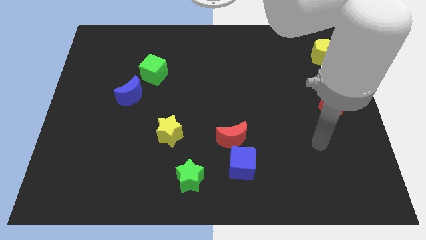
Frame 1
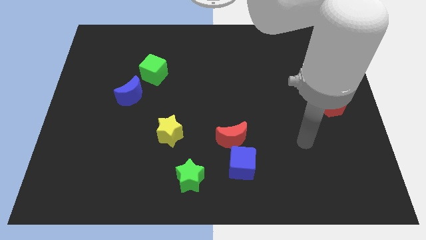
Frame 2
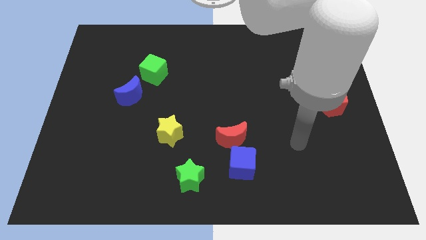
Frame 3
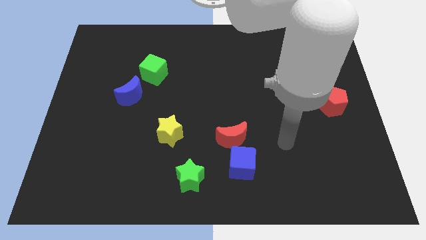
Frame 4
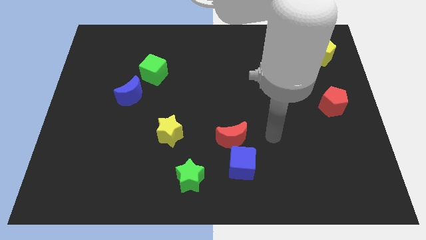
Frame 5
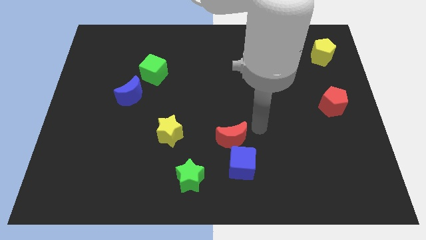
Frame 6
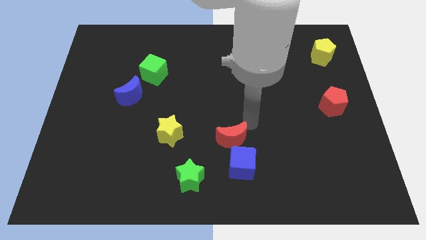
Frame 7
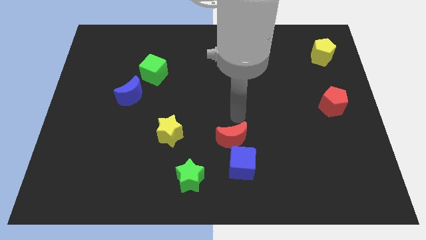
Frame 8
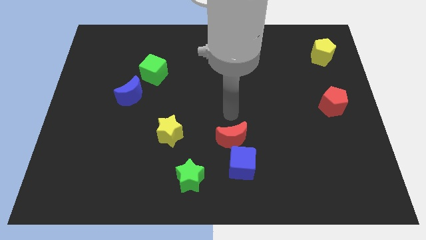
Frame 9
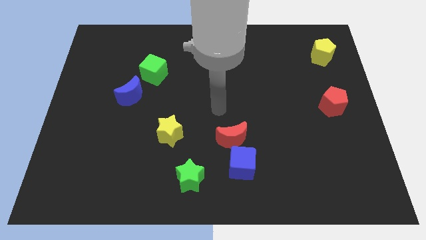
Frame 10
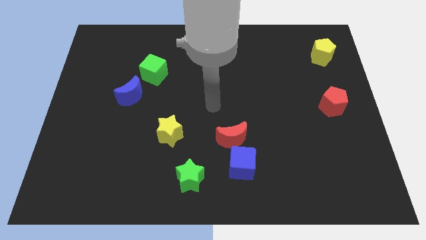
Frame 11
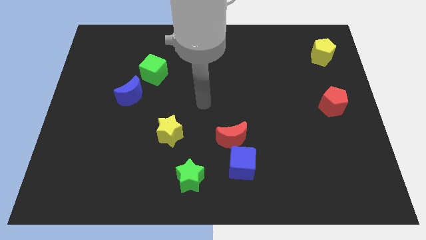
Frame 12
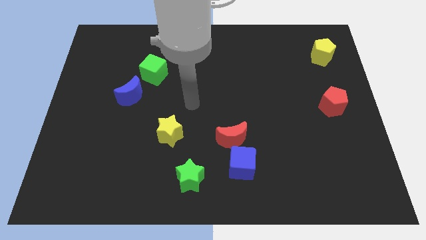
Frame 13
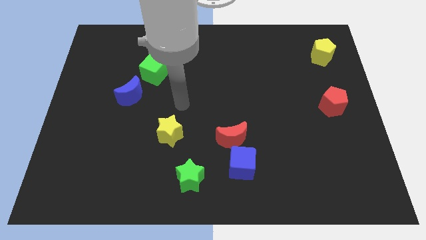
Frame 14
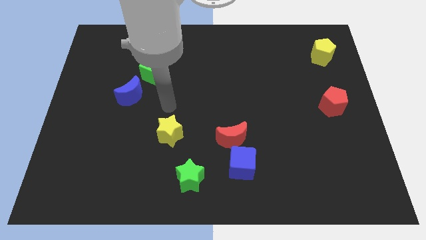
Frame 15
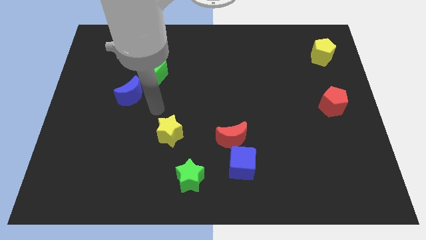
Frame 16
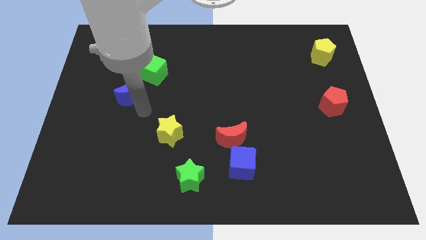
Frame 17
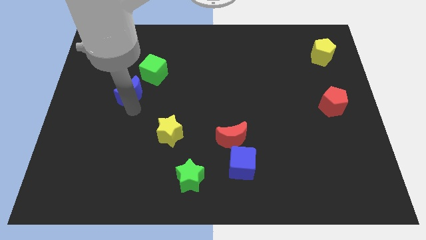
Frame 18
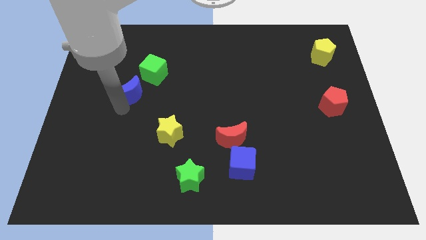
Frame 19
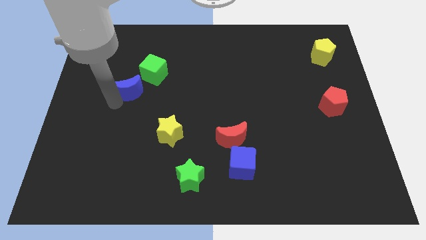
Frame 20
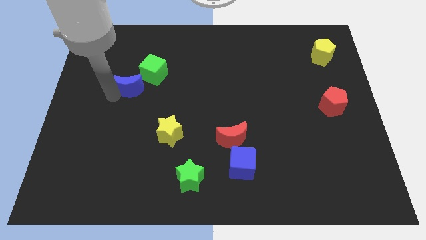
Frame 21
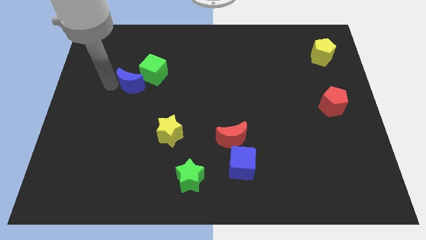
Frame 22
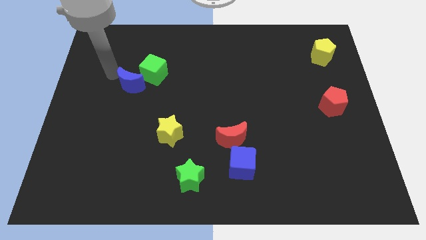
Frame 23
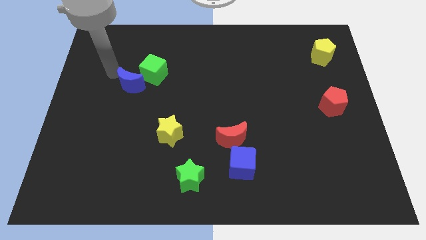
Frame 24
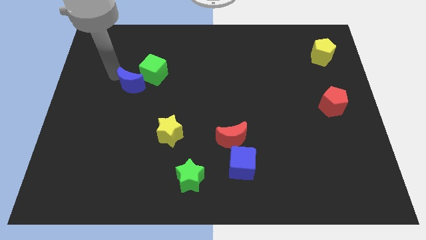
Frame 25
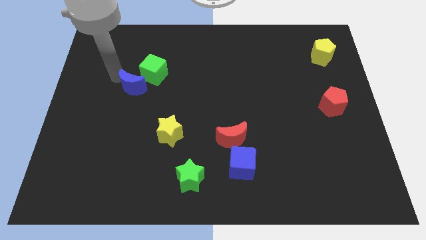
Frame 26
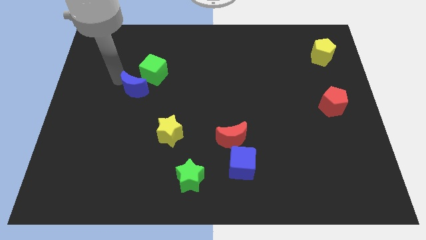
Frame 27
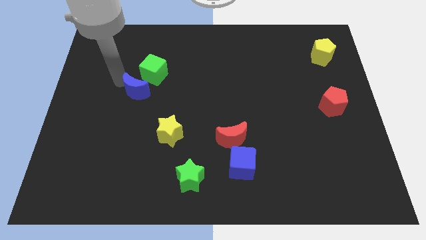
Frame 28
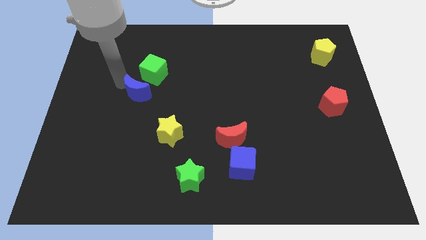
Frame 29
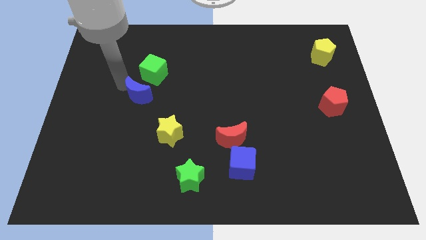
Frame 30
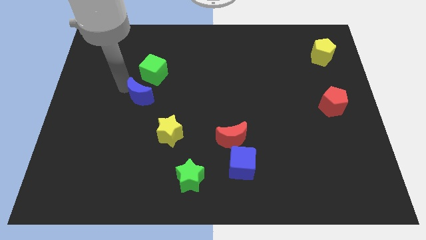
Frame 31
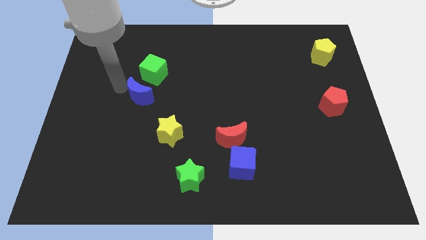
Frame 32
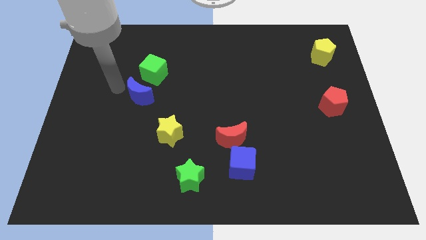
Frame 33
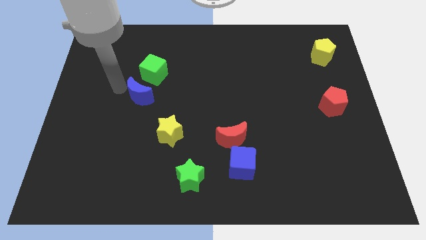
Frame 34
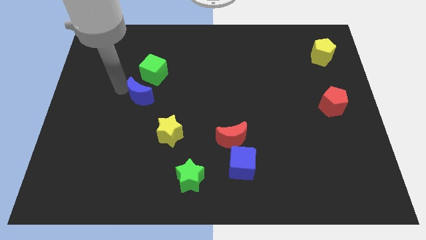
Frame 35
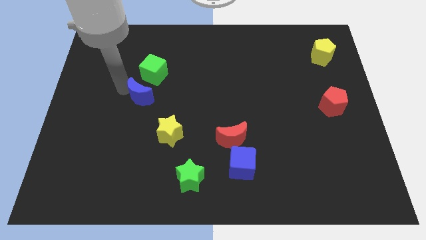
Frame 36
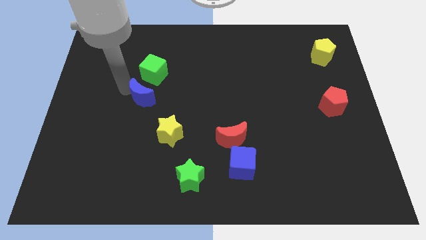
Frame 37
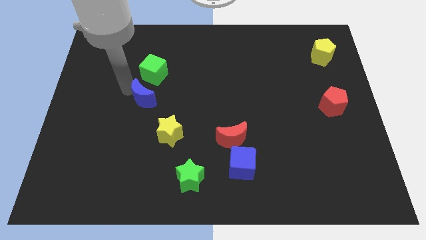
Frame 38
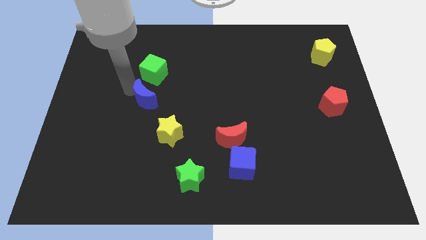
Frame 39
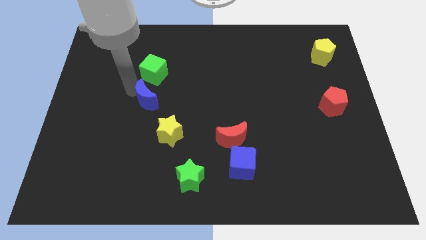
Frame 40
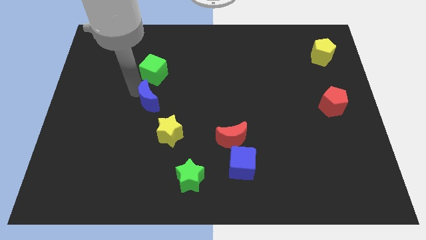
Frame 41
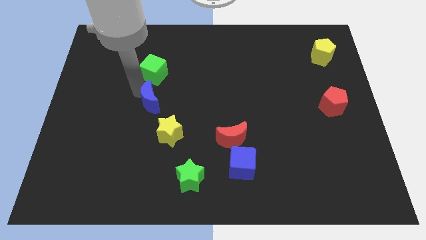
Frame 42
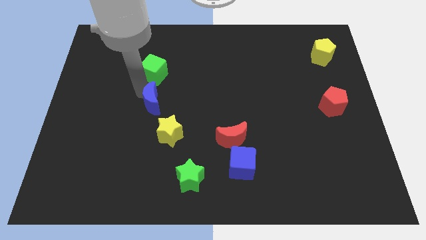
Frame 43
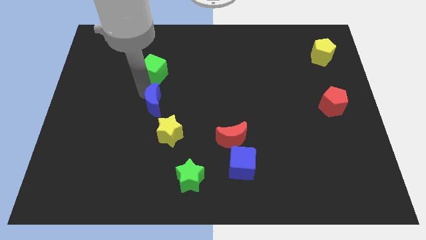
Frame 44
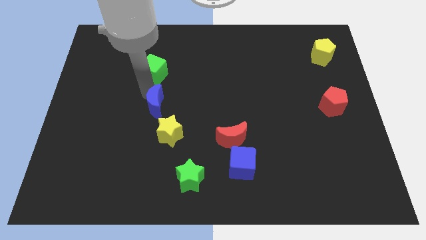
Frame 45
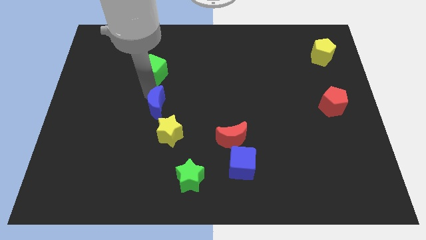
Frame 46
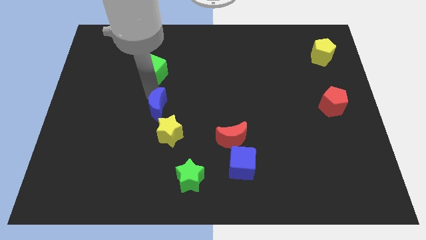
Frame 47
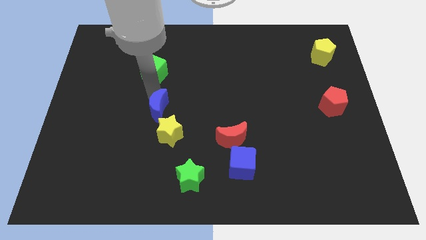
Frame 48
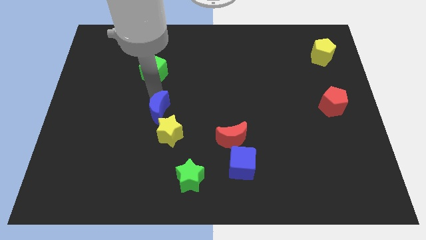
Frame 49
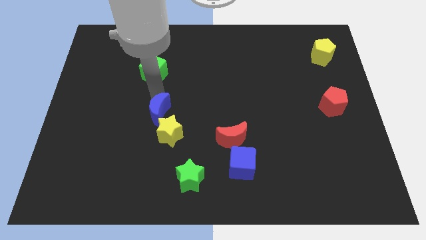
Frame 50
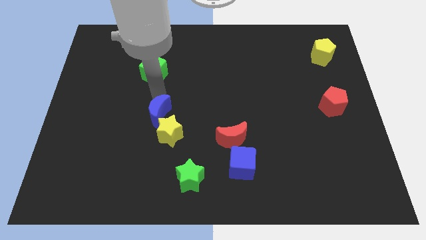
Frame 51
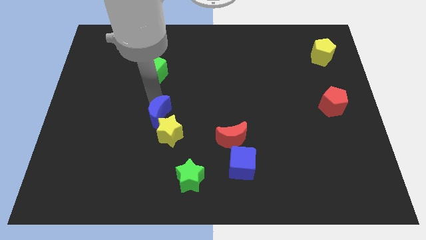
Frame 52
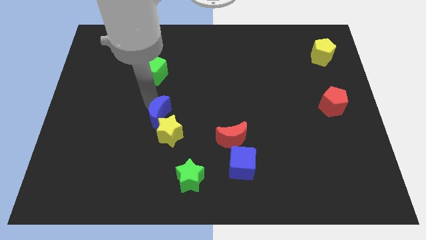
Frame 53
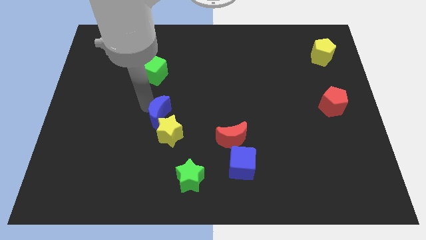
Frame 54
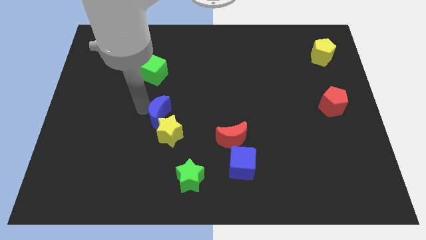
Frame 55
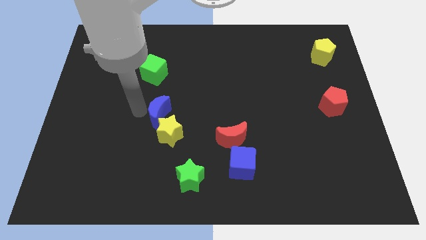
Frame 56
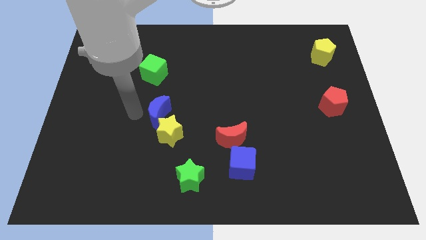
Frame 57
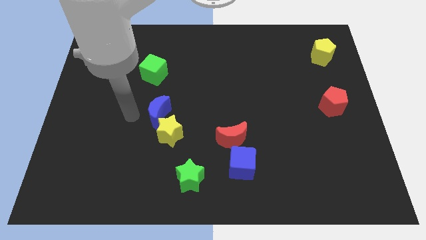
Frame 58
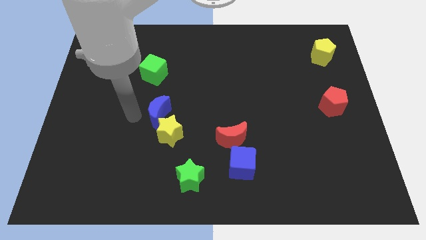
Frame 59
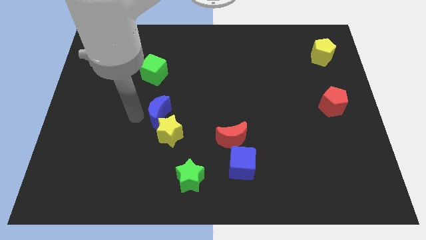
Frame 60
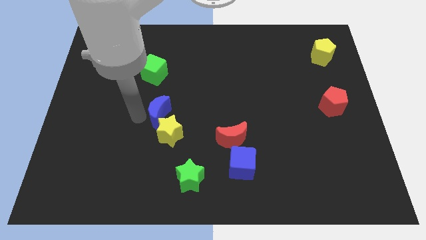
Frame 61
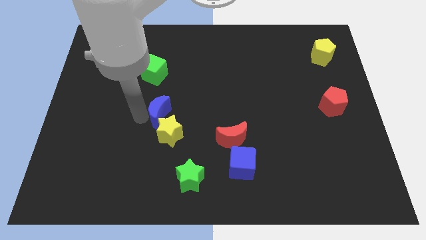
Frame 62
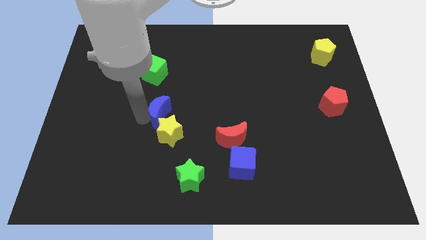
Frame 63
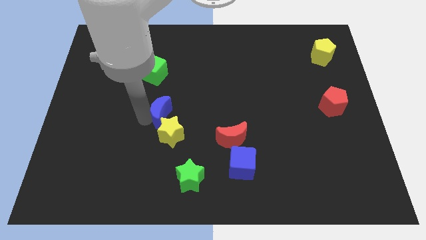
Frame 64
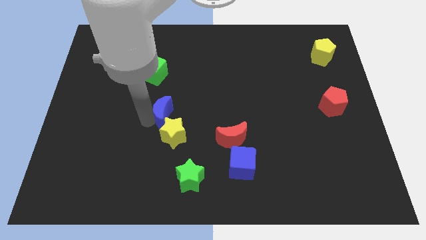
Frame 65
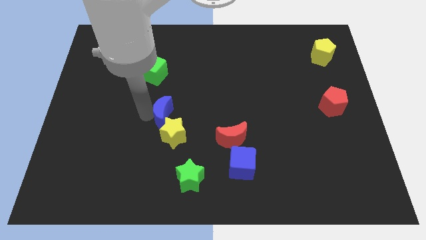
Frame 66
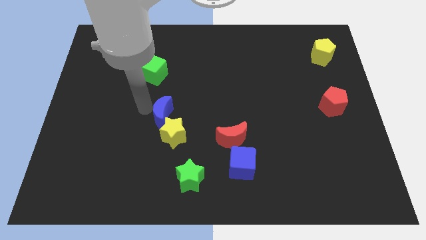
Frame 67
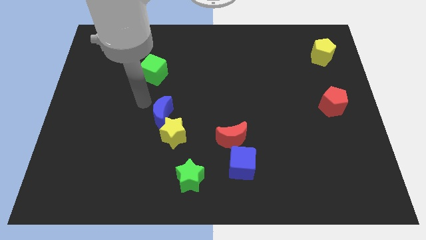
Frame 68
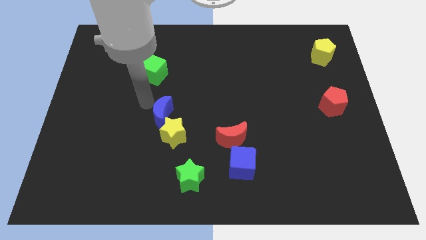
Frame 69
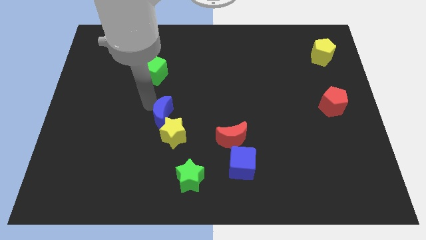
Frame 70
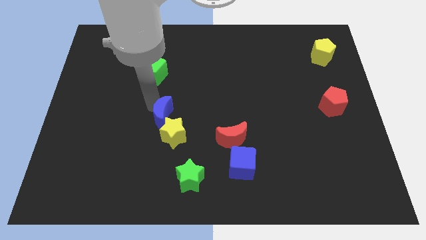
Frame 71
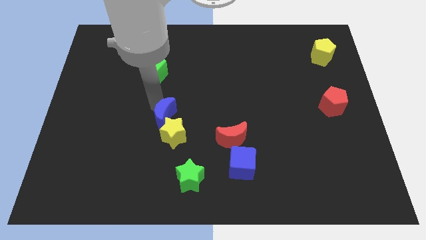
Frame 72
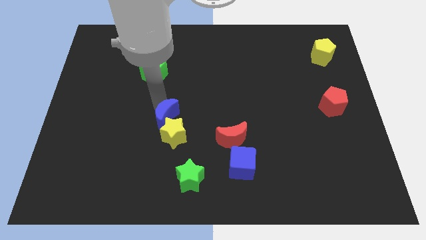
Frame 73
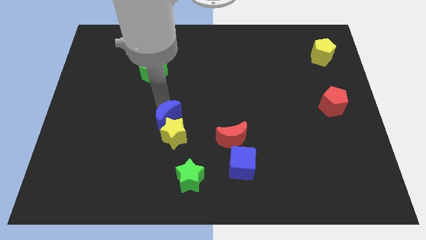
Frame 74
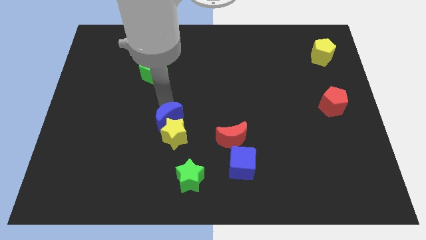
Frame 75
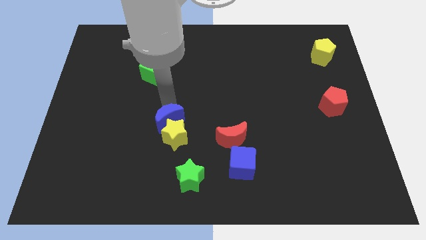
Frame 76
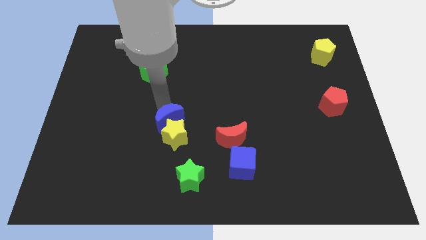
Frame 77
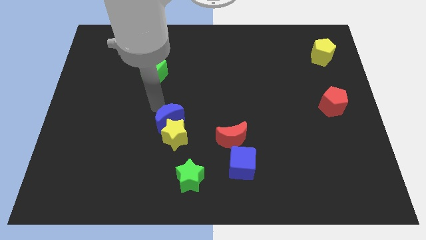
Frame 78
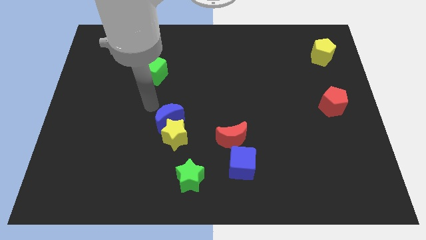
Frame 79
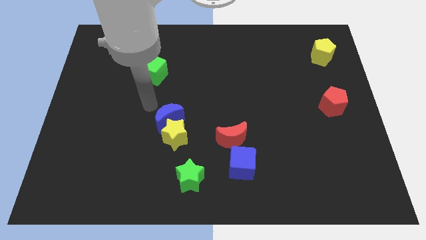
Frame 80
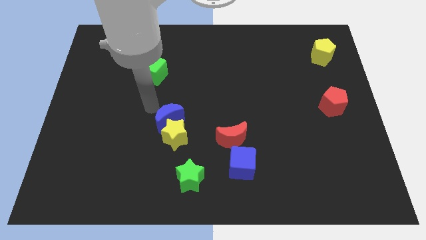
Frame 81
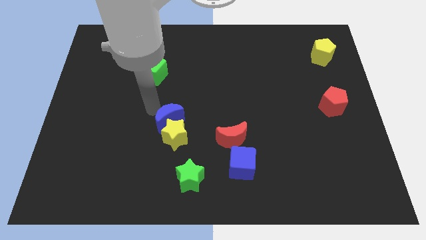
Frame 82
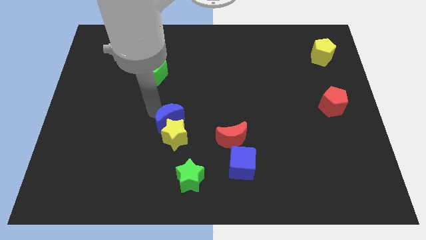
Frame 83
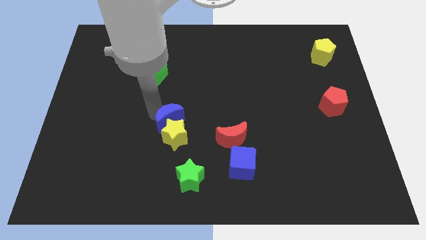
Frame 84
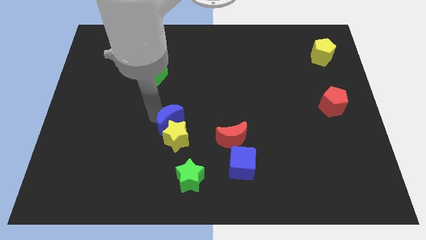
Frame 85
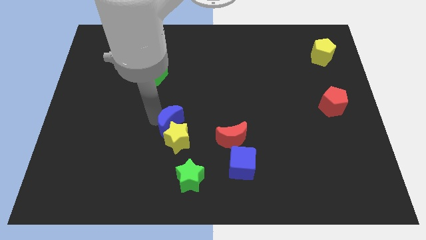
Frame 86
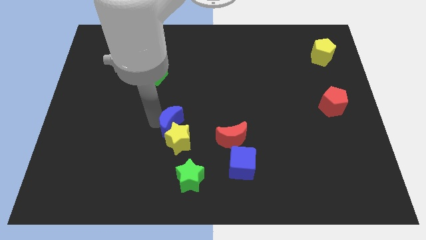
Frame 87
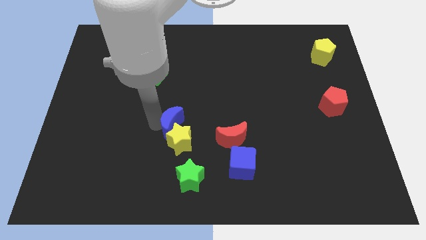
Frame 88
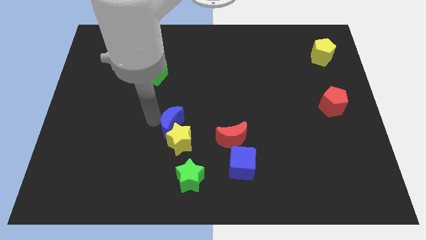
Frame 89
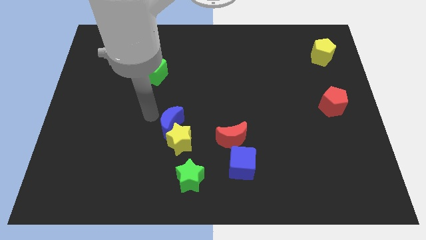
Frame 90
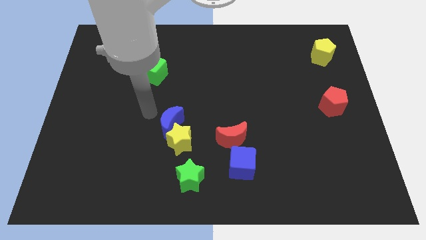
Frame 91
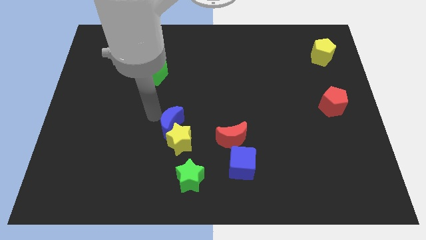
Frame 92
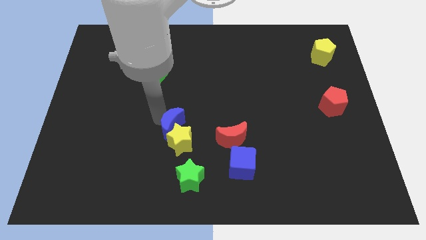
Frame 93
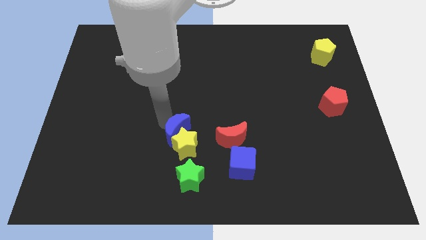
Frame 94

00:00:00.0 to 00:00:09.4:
push the blue moon above the green star
